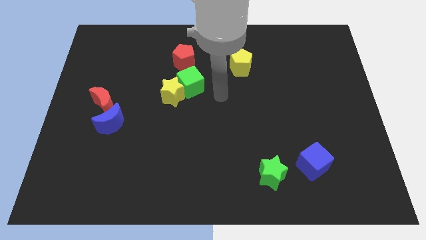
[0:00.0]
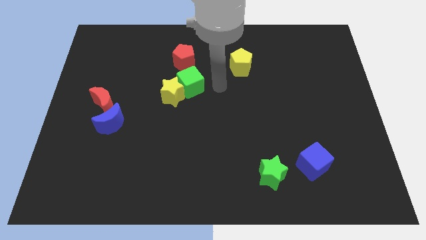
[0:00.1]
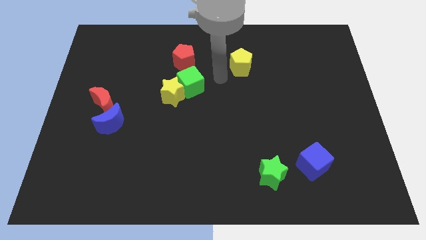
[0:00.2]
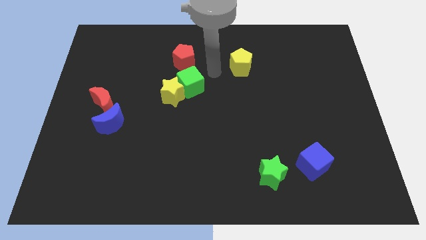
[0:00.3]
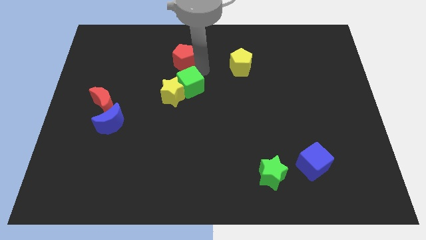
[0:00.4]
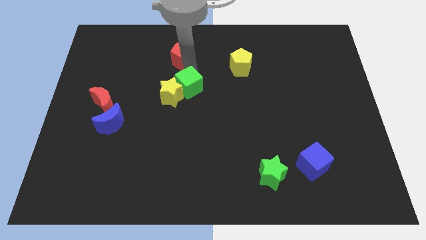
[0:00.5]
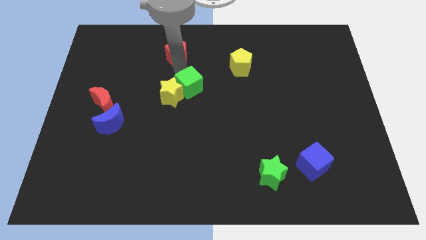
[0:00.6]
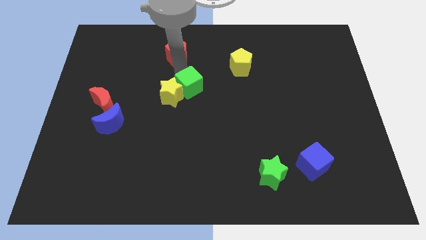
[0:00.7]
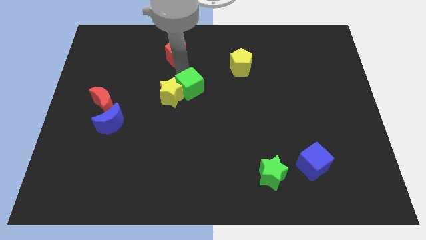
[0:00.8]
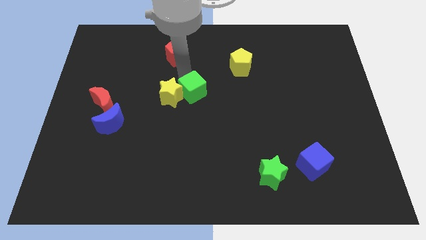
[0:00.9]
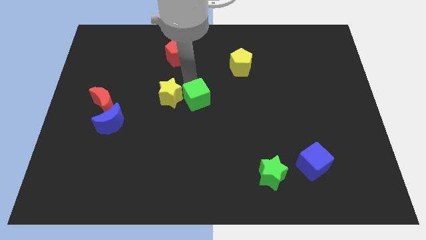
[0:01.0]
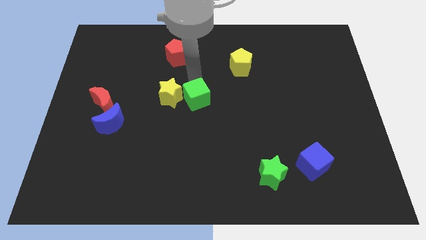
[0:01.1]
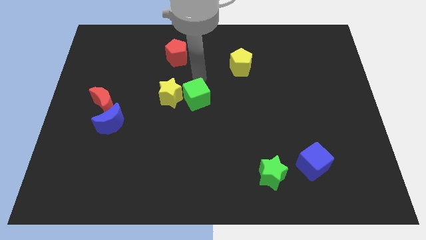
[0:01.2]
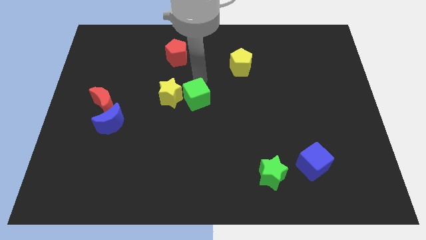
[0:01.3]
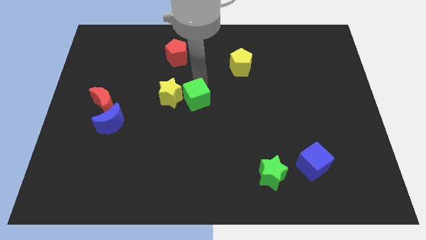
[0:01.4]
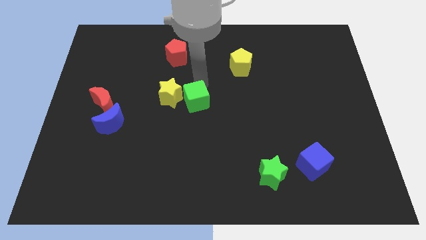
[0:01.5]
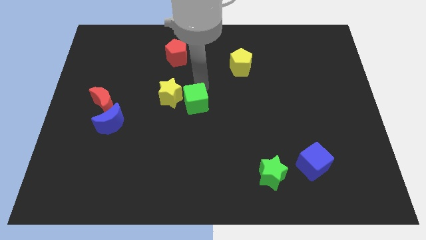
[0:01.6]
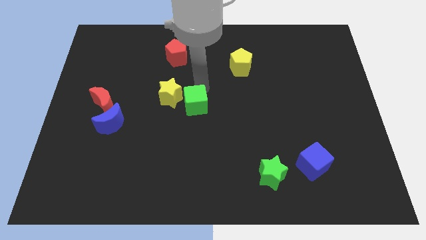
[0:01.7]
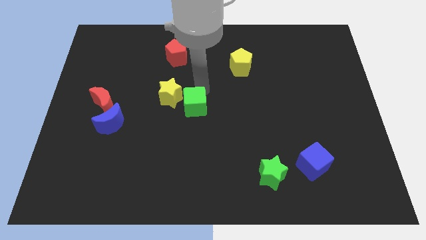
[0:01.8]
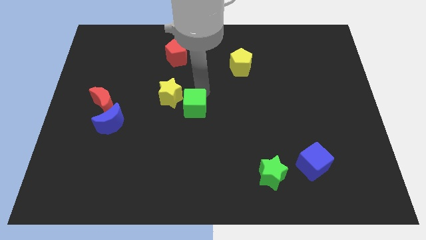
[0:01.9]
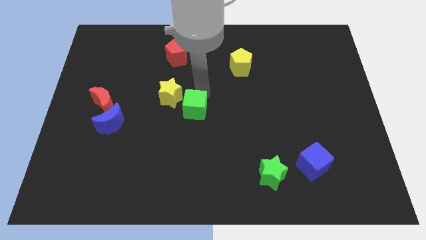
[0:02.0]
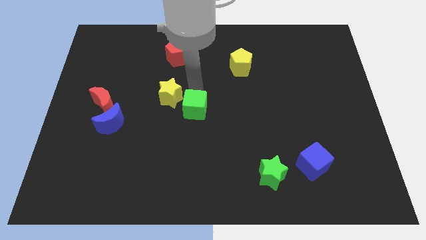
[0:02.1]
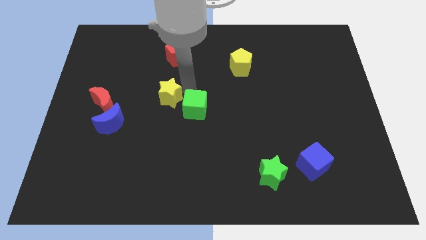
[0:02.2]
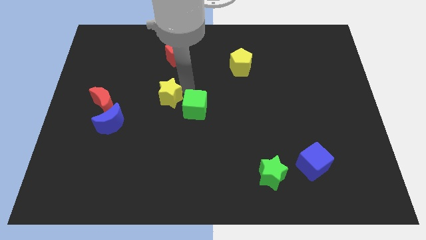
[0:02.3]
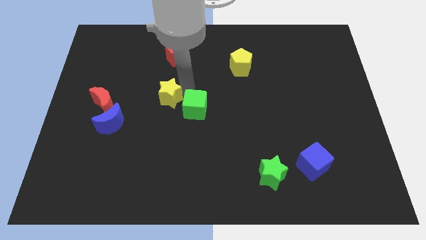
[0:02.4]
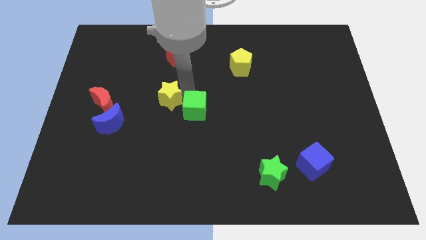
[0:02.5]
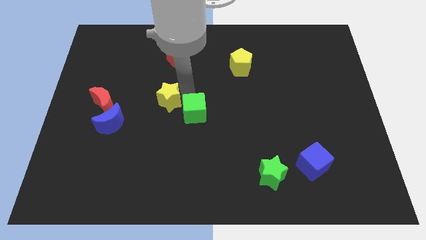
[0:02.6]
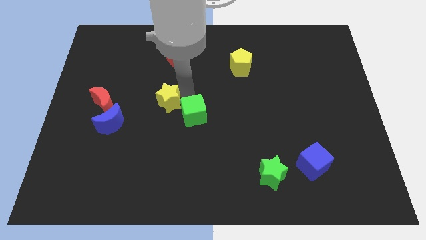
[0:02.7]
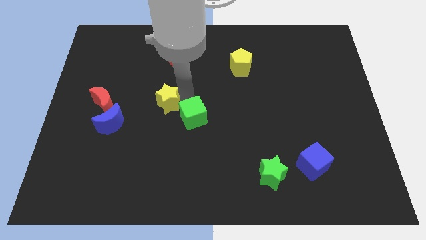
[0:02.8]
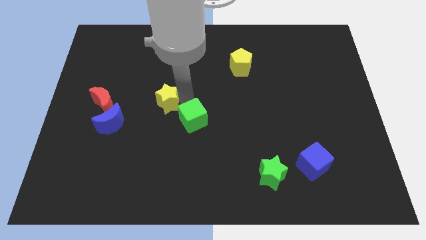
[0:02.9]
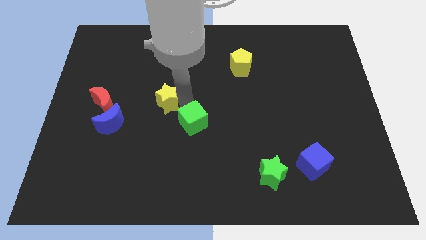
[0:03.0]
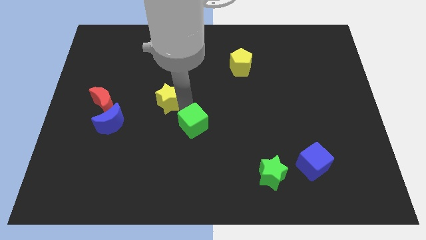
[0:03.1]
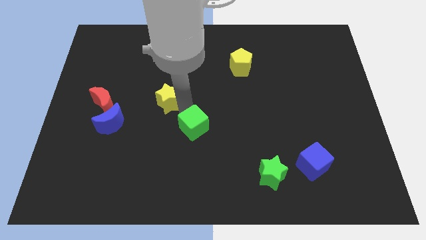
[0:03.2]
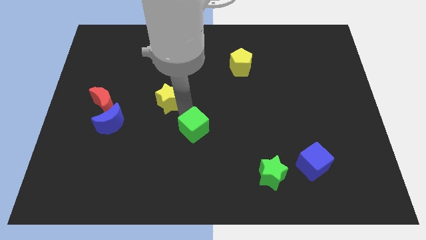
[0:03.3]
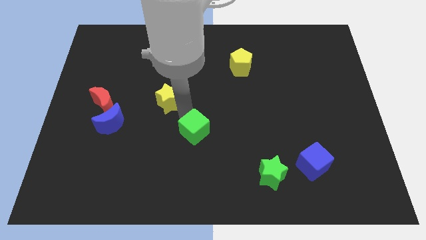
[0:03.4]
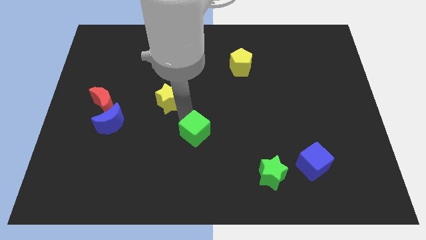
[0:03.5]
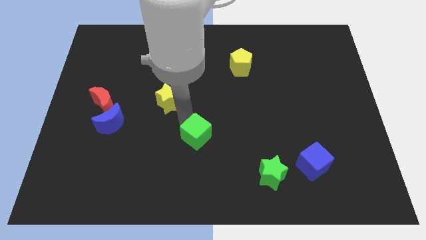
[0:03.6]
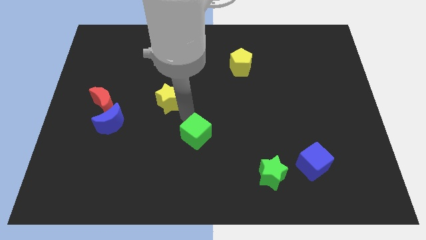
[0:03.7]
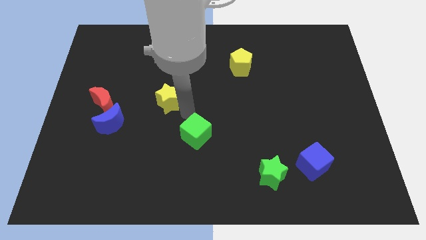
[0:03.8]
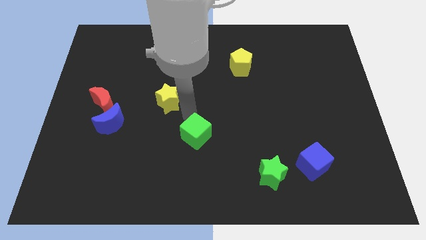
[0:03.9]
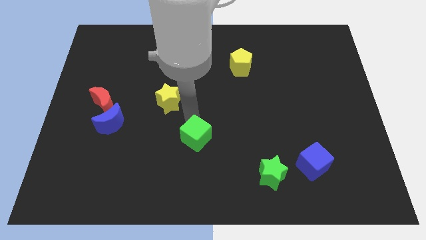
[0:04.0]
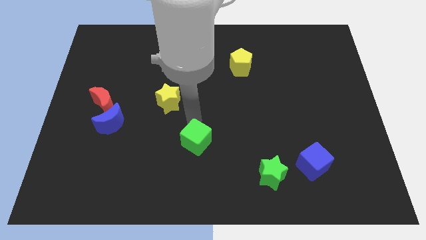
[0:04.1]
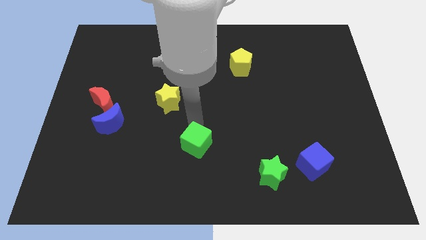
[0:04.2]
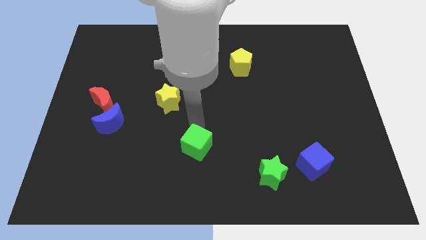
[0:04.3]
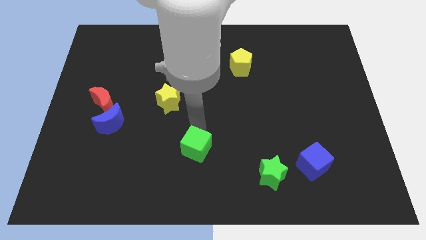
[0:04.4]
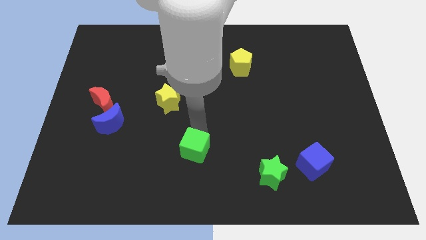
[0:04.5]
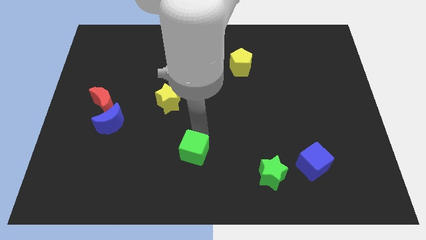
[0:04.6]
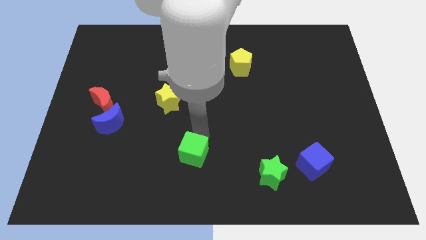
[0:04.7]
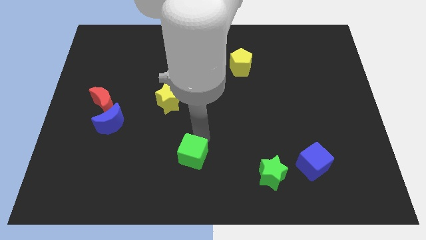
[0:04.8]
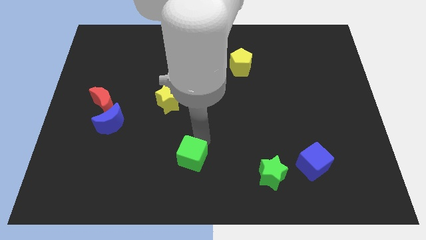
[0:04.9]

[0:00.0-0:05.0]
put the green cube to the bottom side

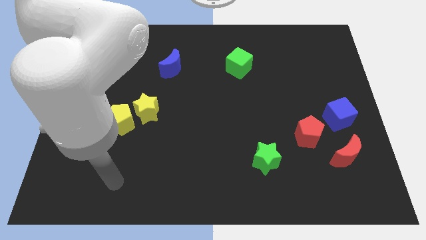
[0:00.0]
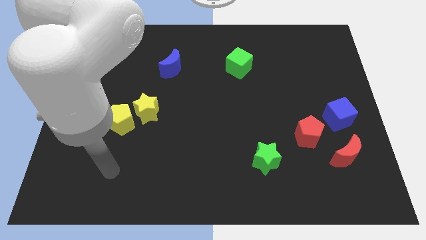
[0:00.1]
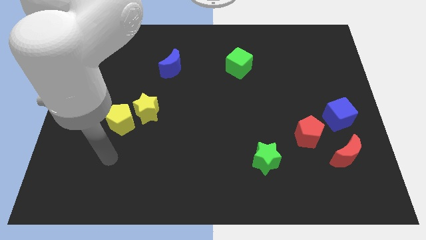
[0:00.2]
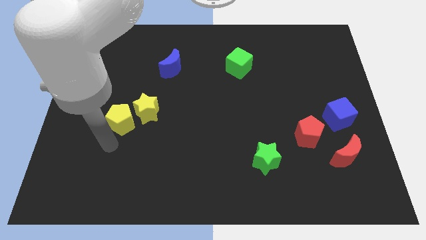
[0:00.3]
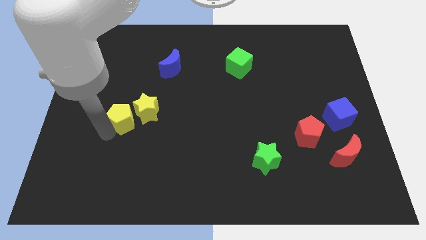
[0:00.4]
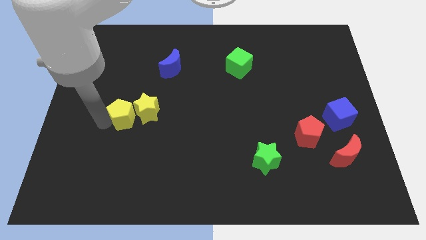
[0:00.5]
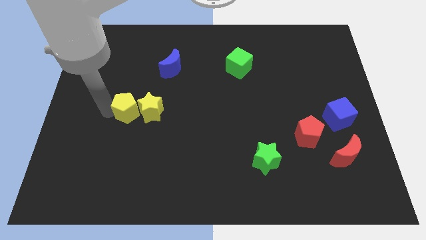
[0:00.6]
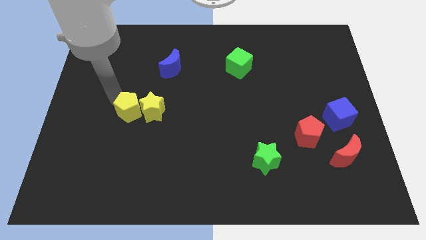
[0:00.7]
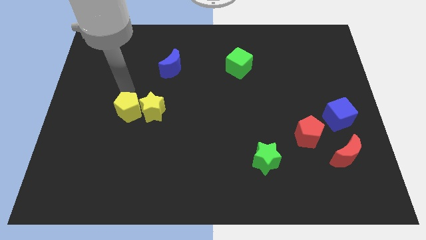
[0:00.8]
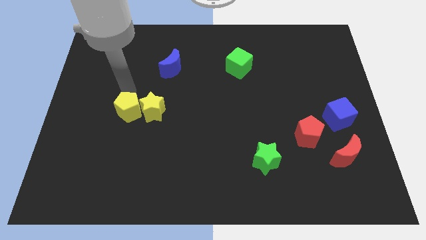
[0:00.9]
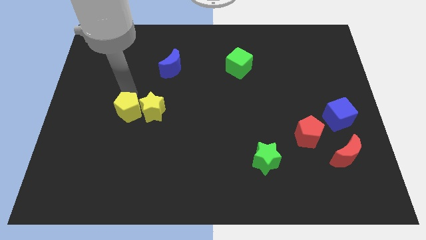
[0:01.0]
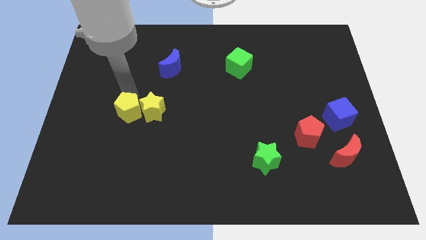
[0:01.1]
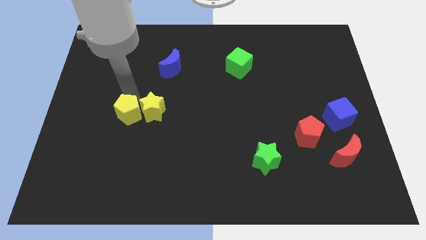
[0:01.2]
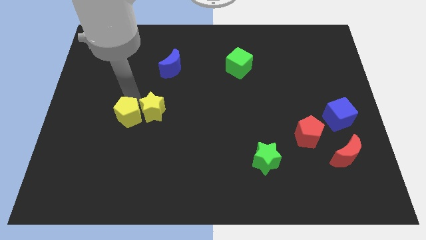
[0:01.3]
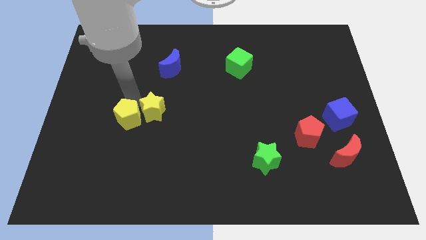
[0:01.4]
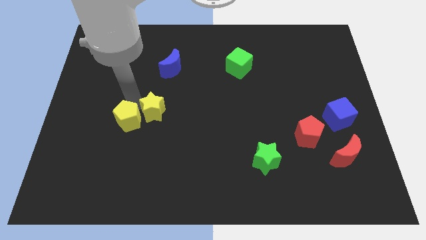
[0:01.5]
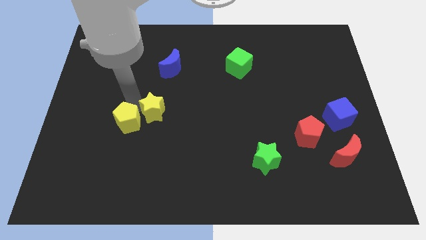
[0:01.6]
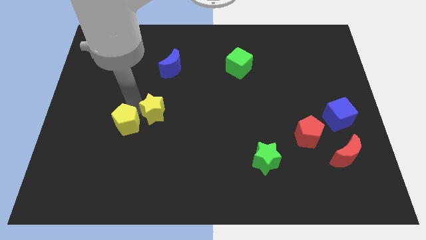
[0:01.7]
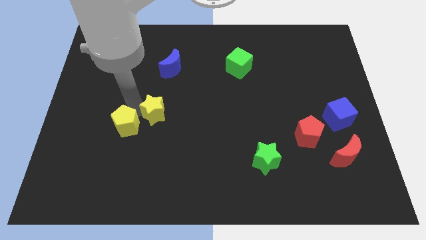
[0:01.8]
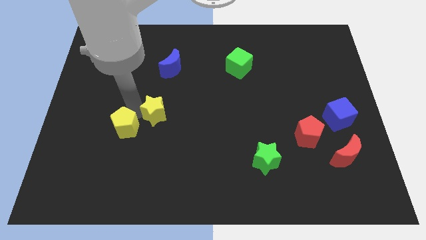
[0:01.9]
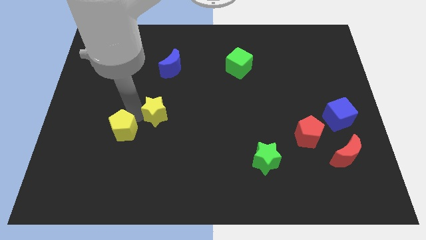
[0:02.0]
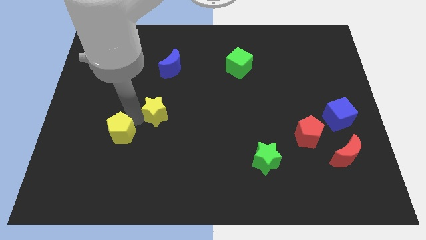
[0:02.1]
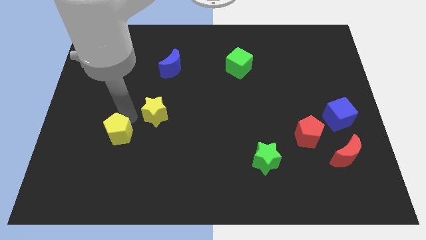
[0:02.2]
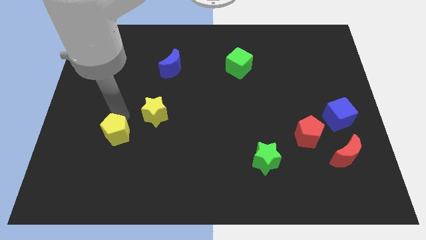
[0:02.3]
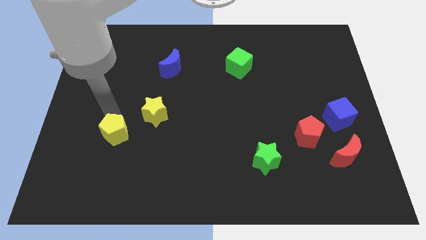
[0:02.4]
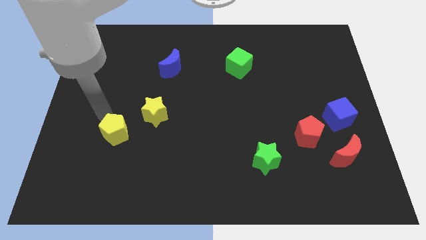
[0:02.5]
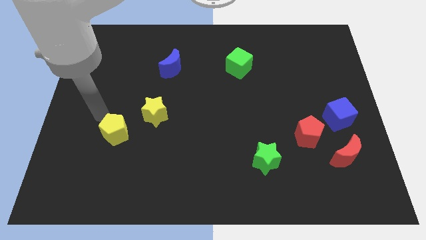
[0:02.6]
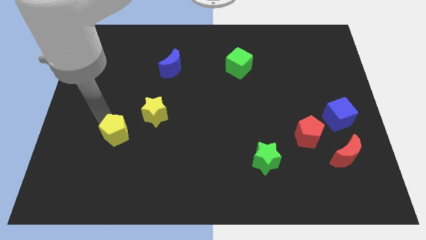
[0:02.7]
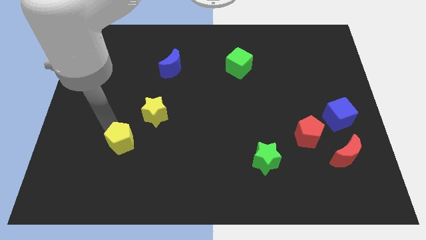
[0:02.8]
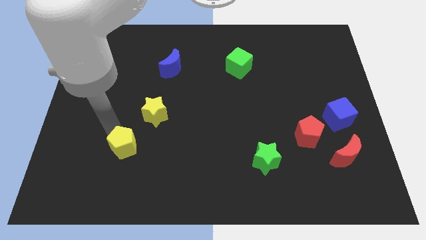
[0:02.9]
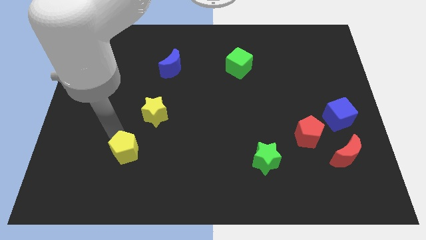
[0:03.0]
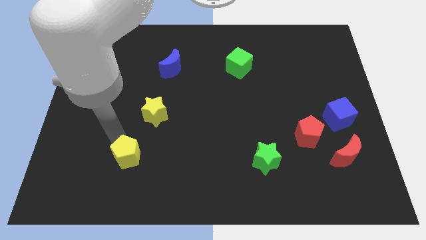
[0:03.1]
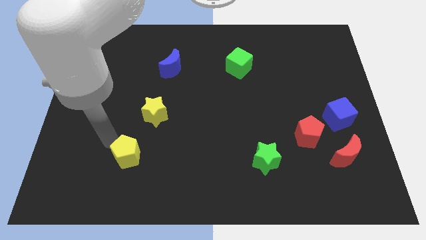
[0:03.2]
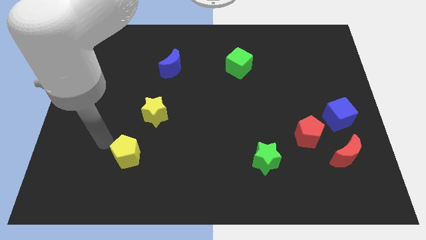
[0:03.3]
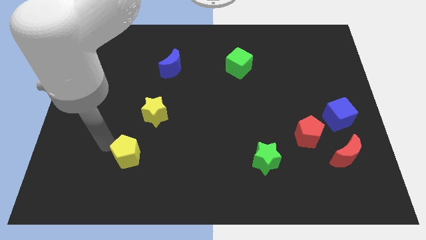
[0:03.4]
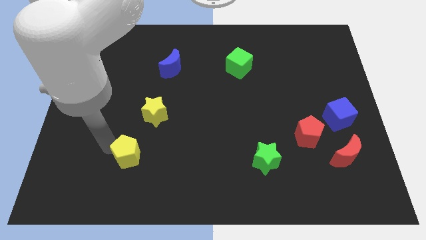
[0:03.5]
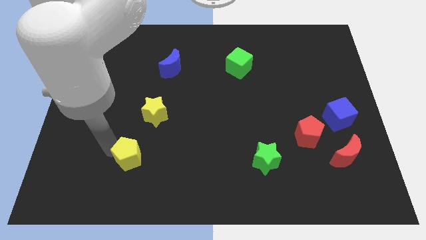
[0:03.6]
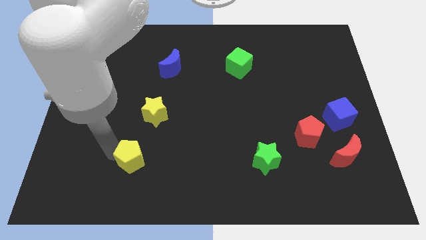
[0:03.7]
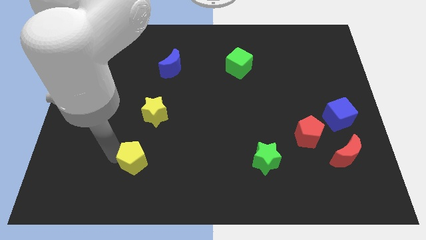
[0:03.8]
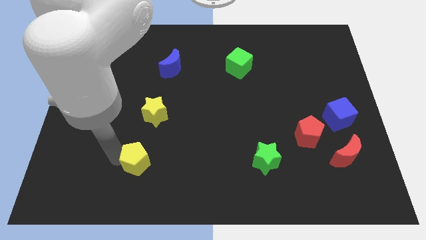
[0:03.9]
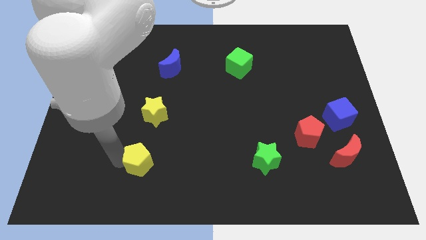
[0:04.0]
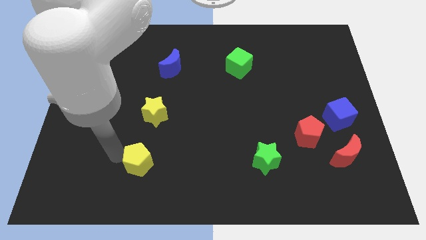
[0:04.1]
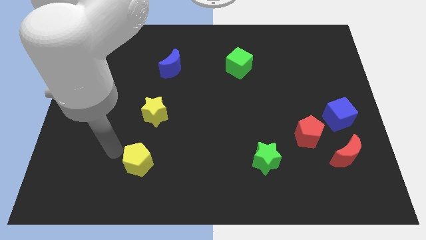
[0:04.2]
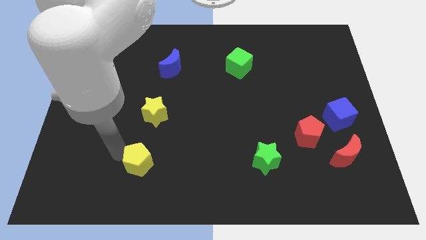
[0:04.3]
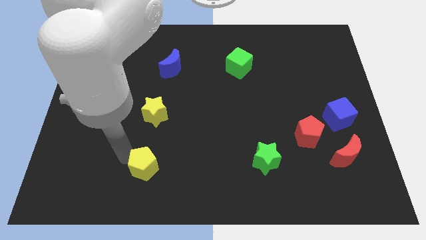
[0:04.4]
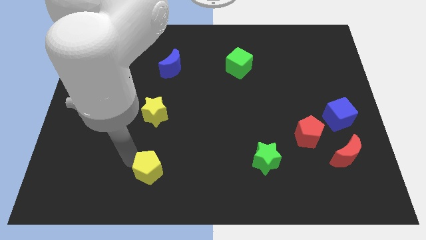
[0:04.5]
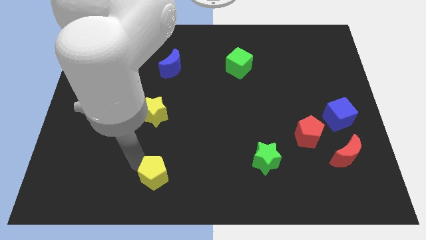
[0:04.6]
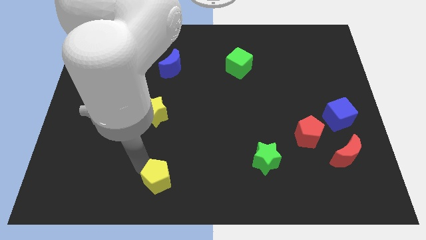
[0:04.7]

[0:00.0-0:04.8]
move the yellow pentagon to the bottom
